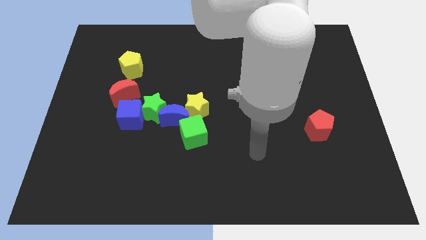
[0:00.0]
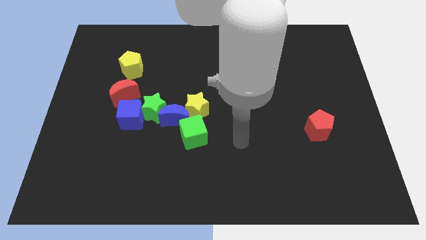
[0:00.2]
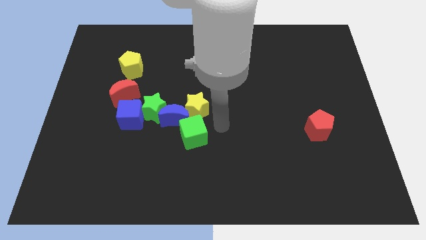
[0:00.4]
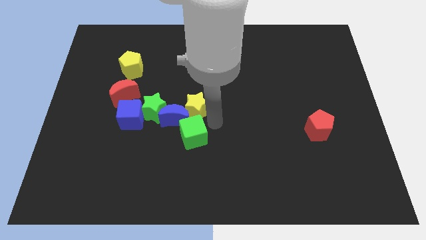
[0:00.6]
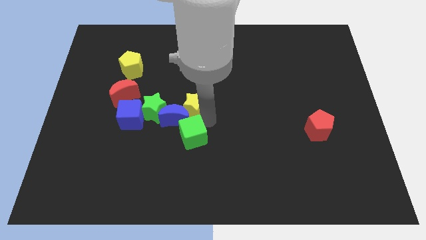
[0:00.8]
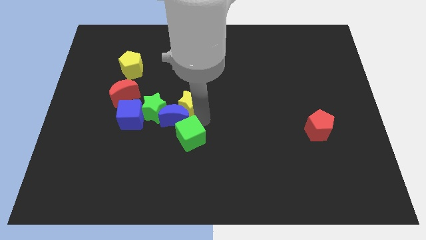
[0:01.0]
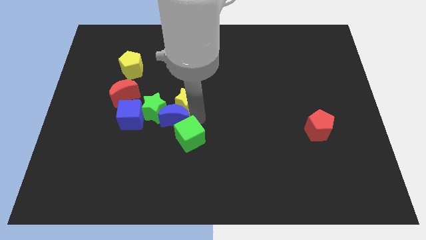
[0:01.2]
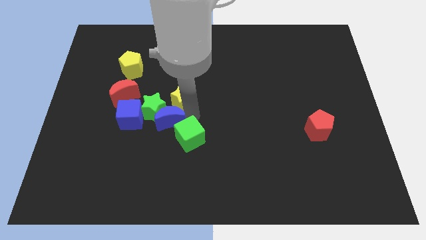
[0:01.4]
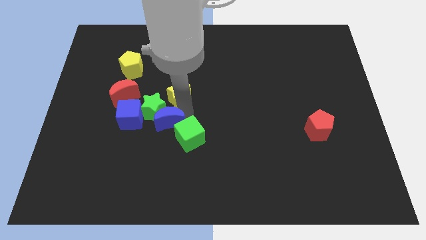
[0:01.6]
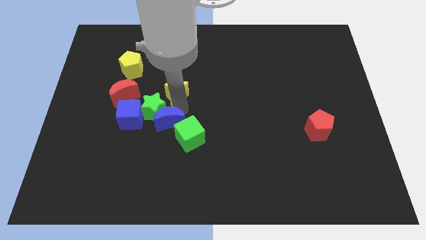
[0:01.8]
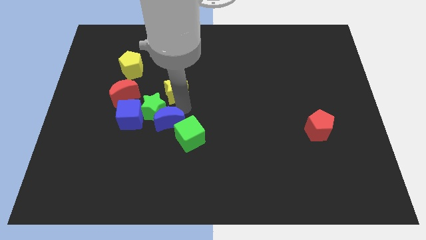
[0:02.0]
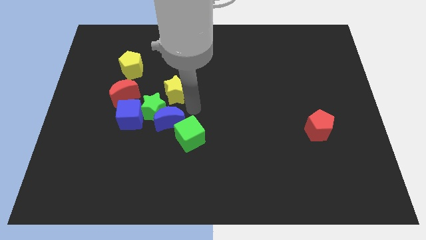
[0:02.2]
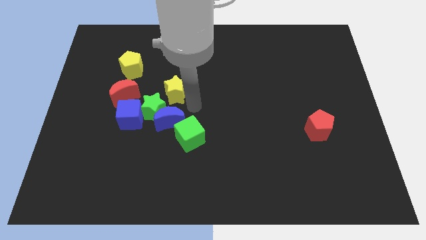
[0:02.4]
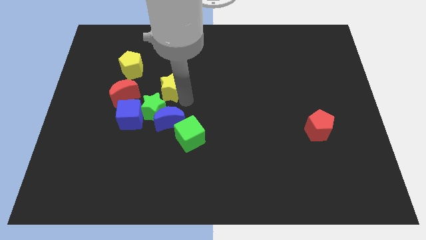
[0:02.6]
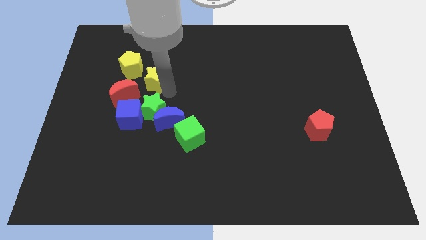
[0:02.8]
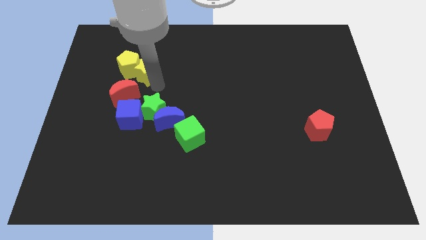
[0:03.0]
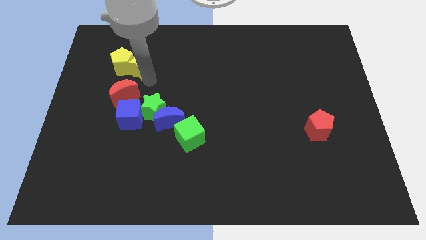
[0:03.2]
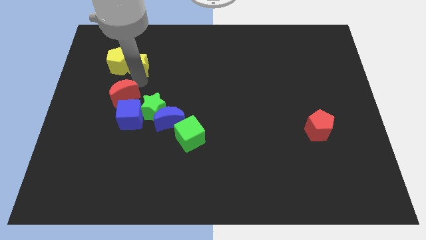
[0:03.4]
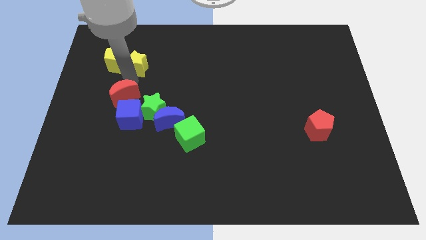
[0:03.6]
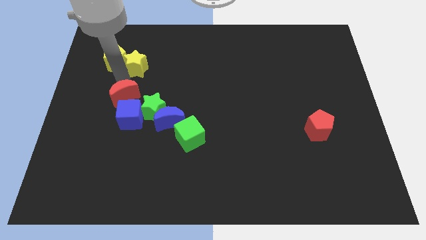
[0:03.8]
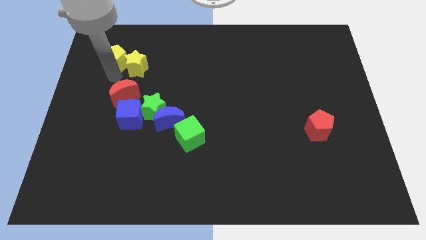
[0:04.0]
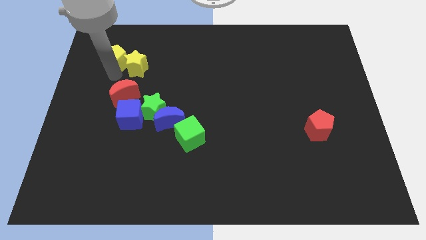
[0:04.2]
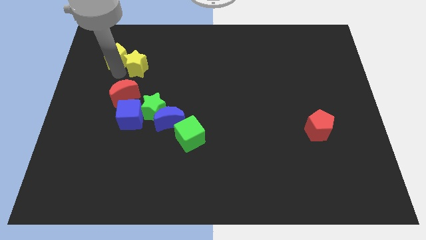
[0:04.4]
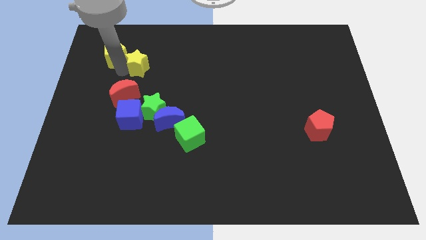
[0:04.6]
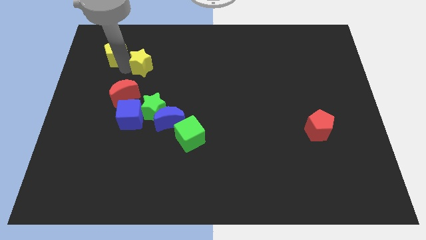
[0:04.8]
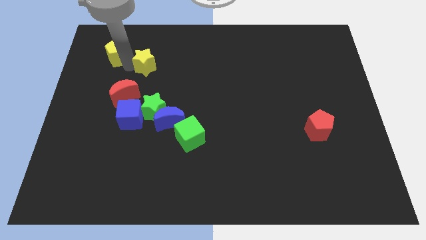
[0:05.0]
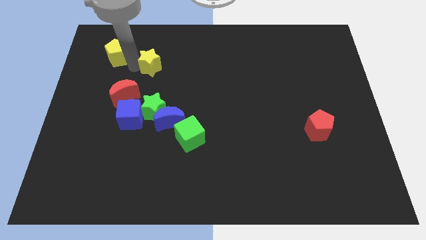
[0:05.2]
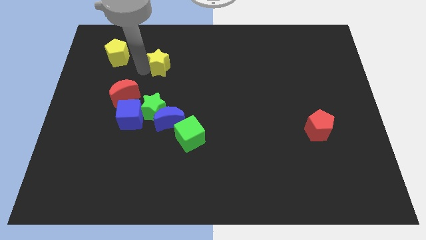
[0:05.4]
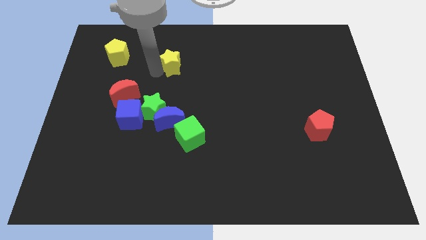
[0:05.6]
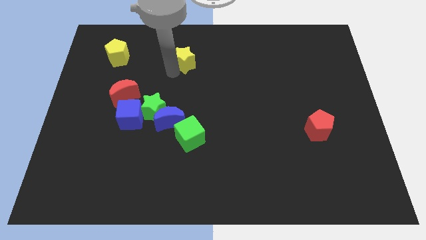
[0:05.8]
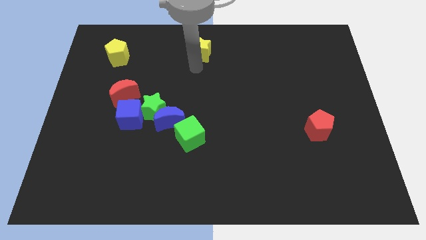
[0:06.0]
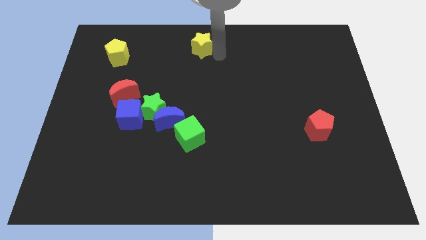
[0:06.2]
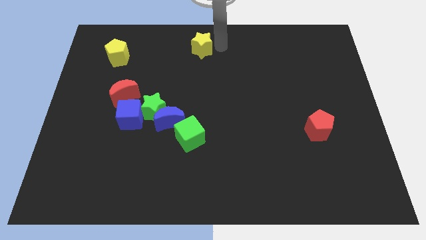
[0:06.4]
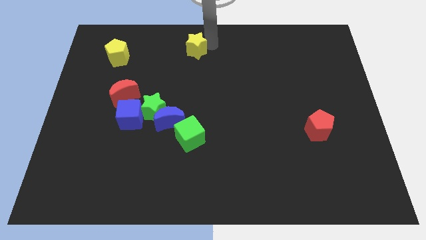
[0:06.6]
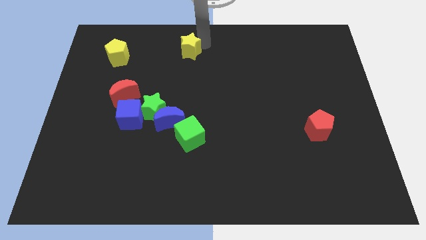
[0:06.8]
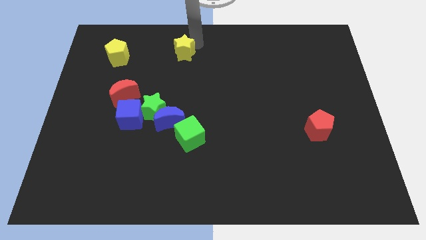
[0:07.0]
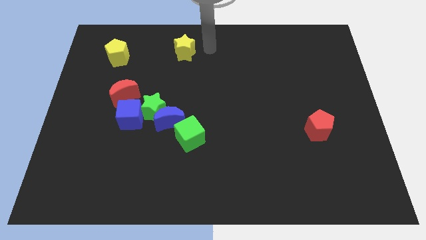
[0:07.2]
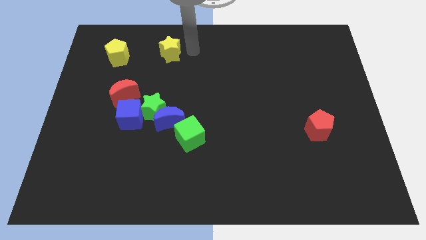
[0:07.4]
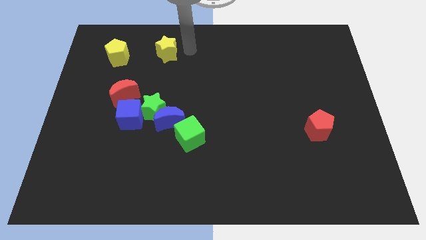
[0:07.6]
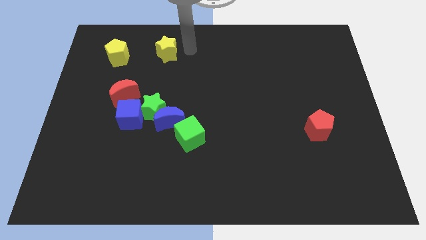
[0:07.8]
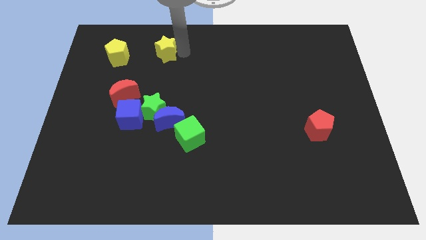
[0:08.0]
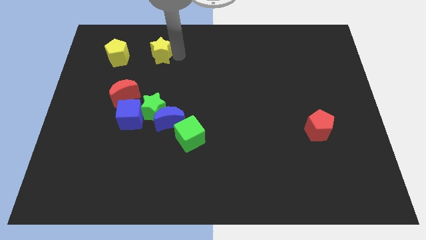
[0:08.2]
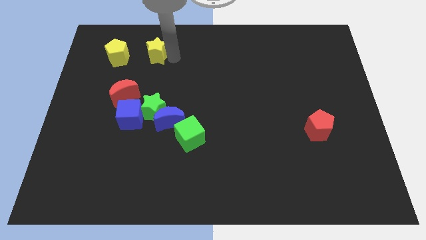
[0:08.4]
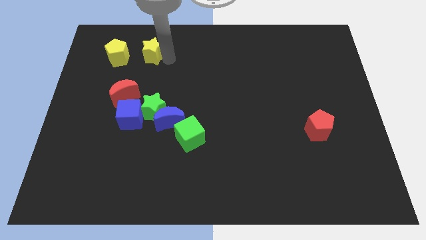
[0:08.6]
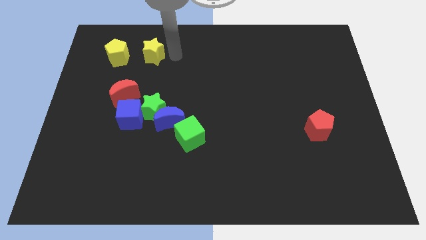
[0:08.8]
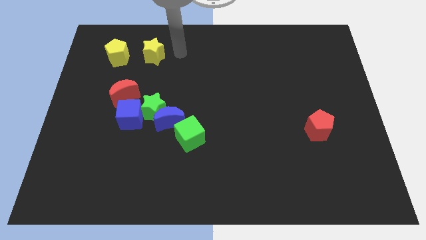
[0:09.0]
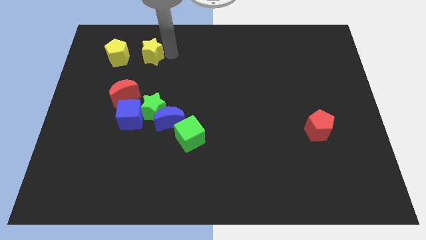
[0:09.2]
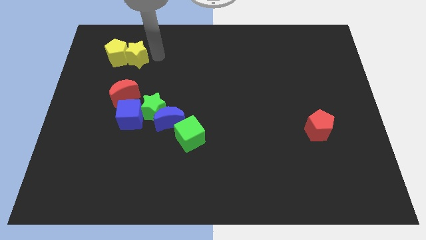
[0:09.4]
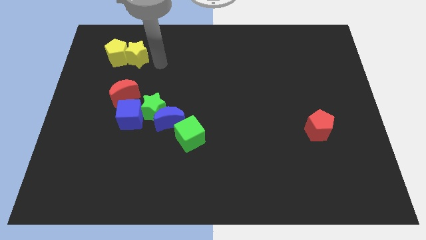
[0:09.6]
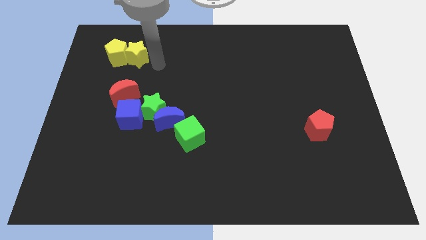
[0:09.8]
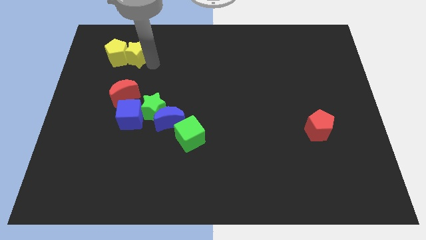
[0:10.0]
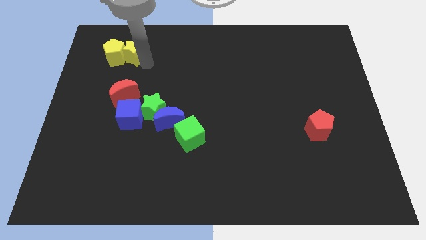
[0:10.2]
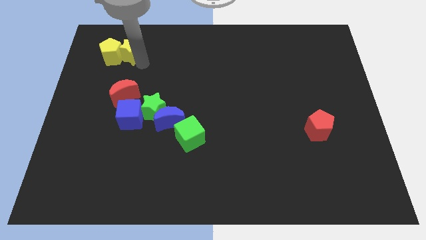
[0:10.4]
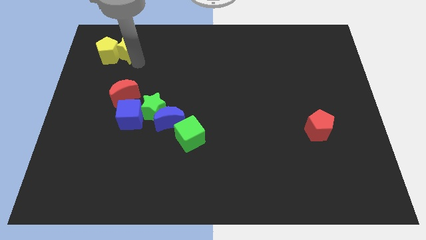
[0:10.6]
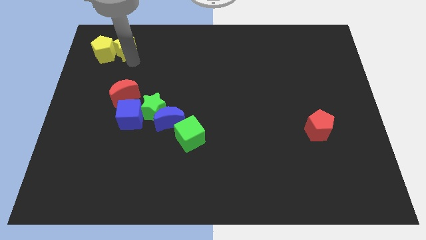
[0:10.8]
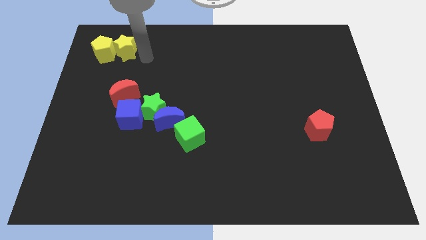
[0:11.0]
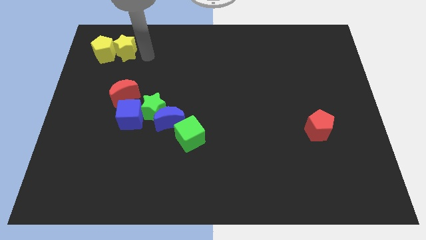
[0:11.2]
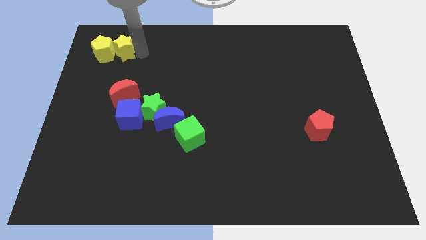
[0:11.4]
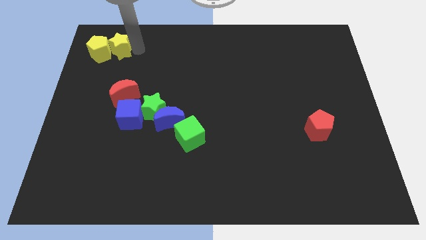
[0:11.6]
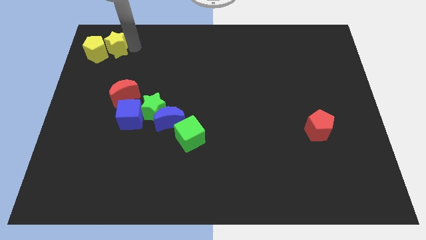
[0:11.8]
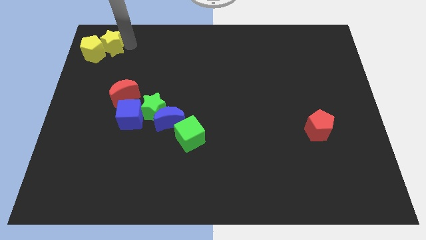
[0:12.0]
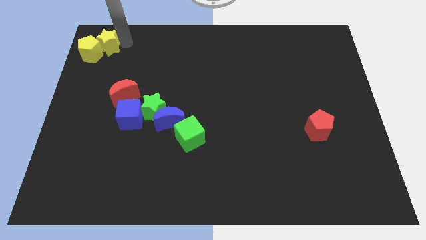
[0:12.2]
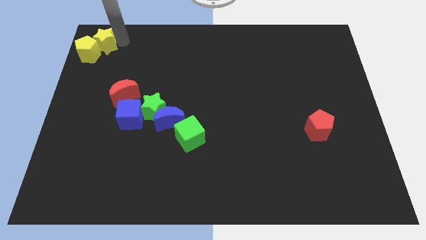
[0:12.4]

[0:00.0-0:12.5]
put the yellow star to the top left
